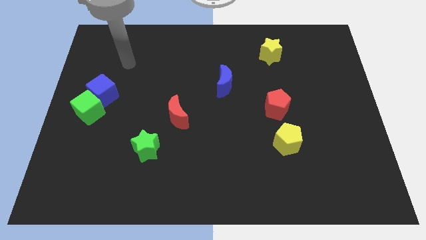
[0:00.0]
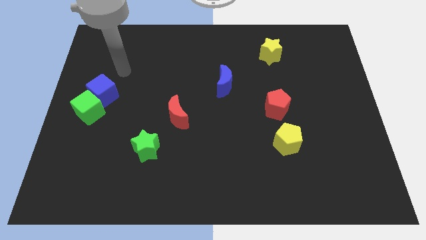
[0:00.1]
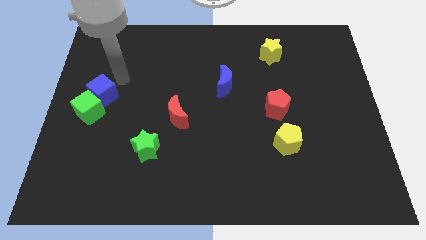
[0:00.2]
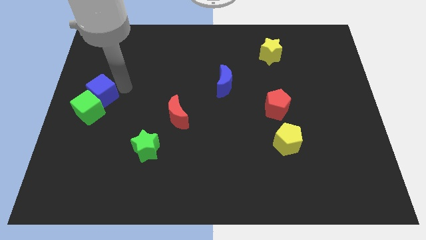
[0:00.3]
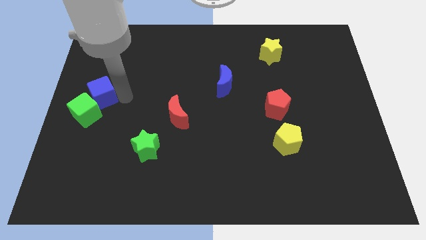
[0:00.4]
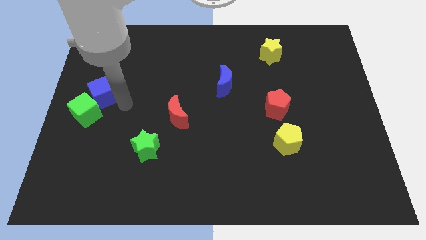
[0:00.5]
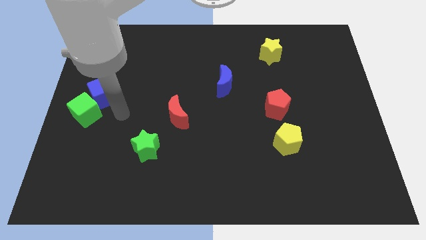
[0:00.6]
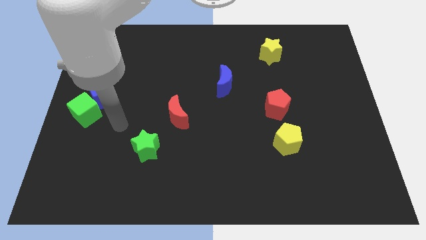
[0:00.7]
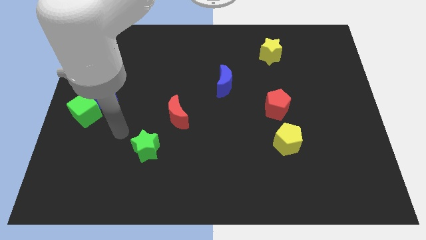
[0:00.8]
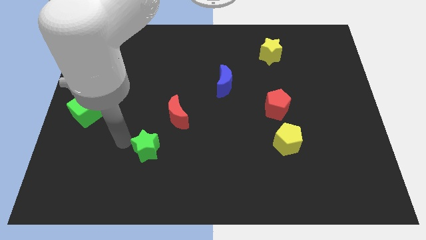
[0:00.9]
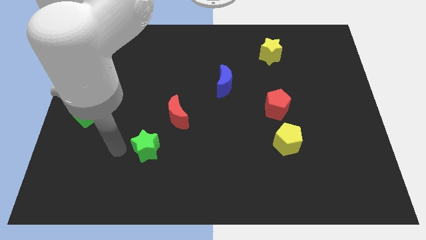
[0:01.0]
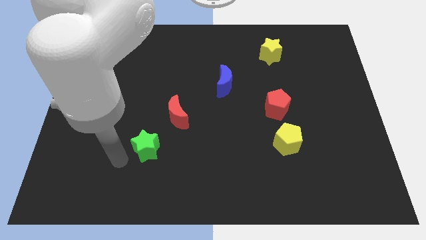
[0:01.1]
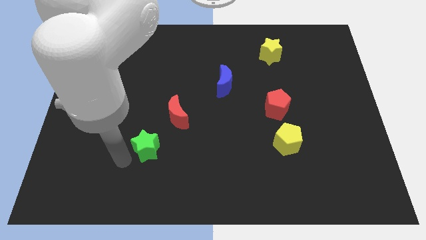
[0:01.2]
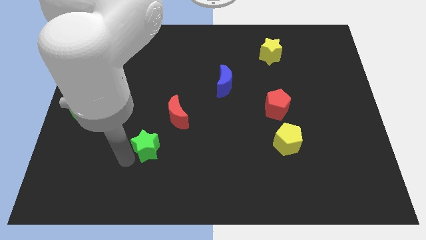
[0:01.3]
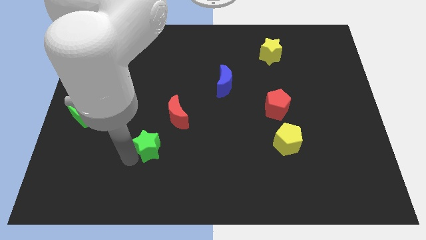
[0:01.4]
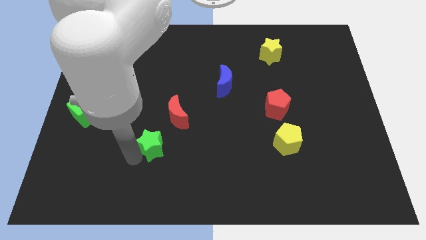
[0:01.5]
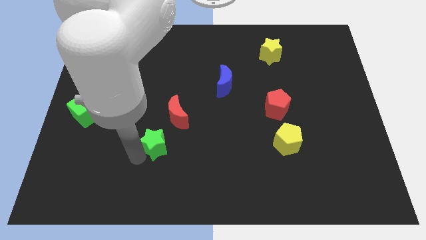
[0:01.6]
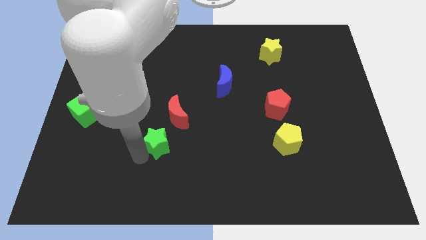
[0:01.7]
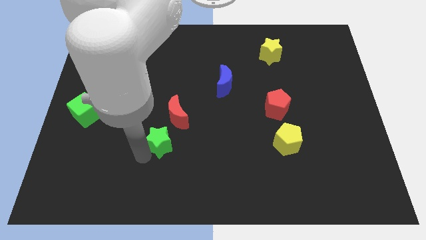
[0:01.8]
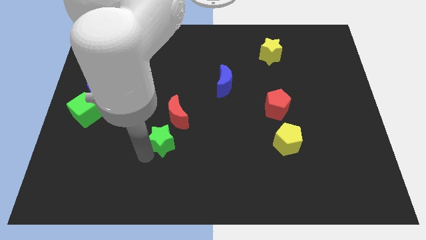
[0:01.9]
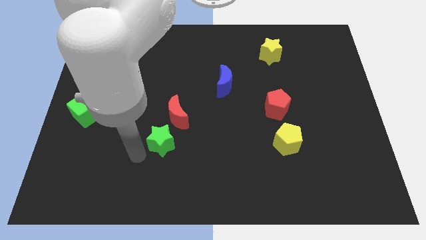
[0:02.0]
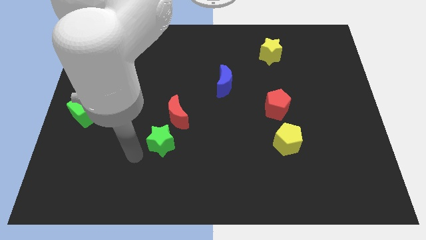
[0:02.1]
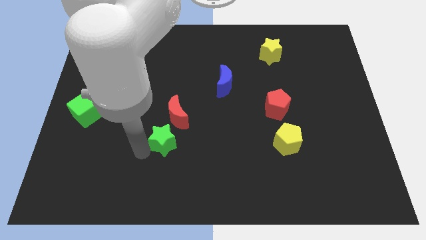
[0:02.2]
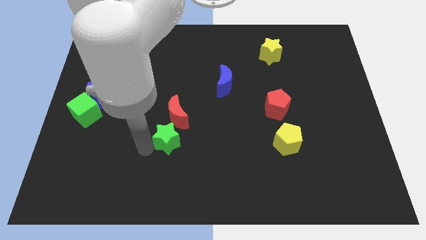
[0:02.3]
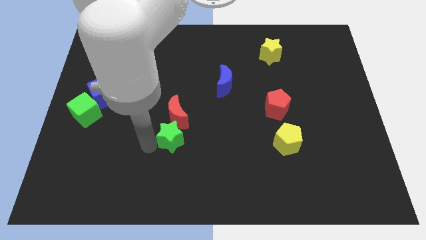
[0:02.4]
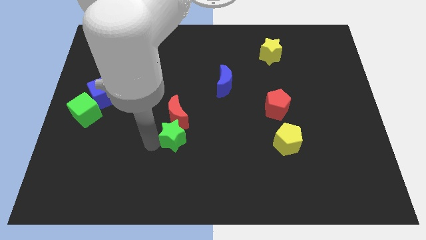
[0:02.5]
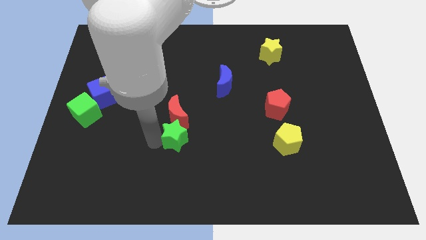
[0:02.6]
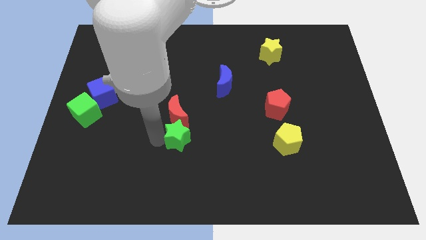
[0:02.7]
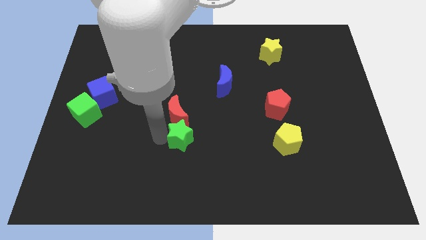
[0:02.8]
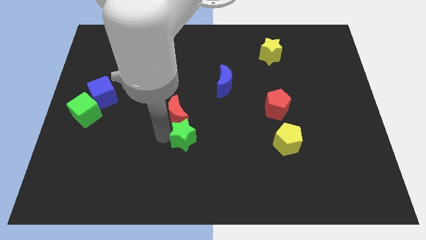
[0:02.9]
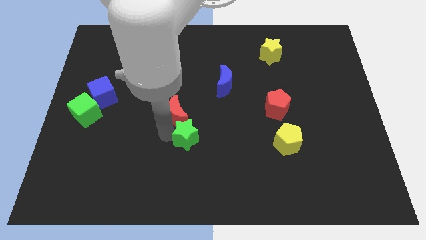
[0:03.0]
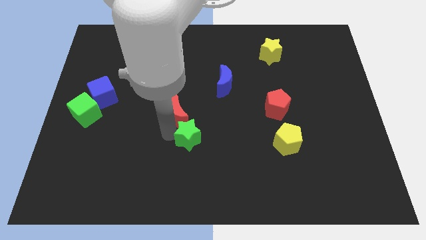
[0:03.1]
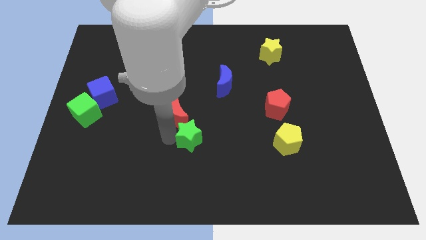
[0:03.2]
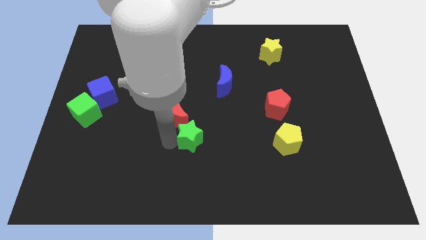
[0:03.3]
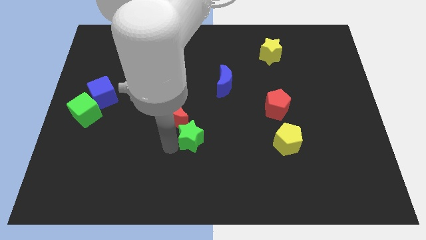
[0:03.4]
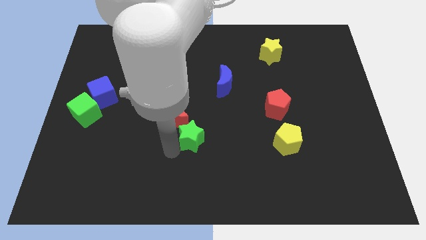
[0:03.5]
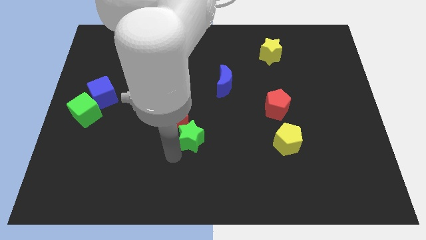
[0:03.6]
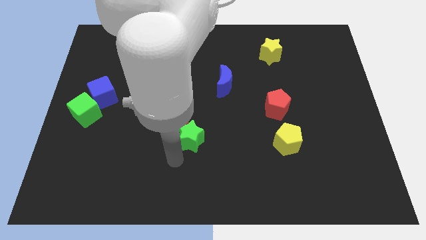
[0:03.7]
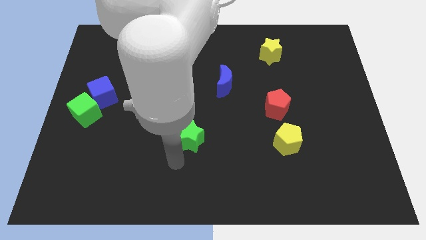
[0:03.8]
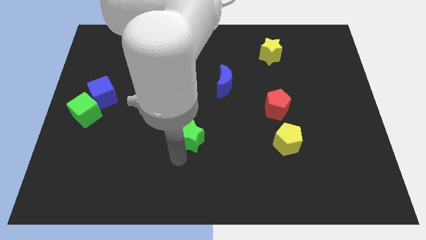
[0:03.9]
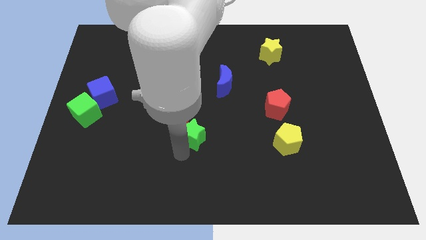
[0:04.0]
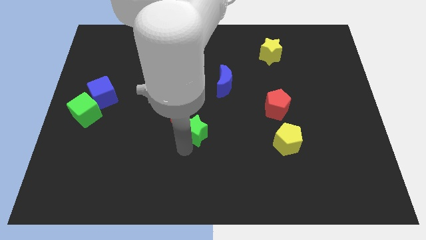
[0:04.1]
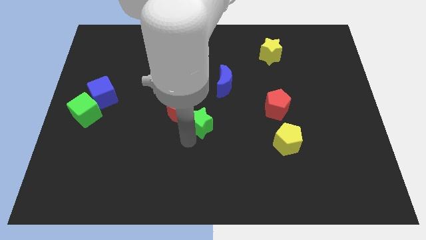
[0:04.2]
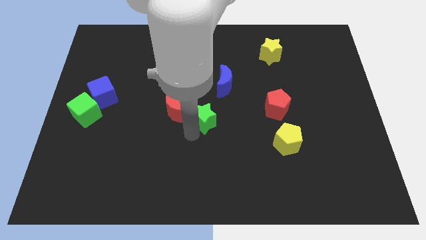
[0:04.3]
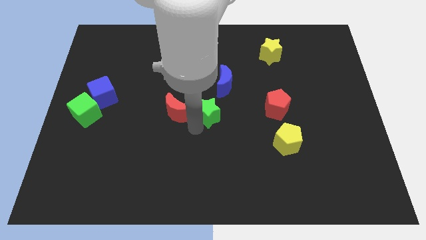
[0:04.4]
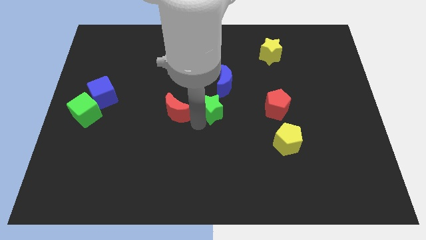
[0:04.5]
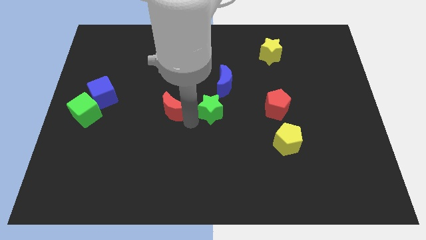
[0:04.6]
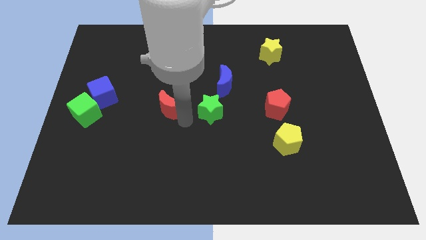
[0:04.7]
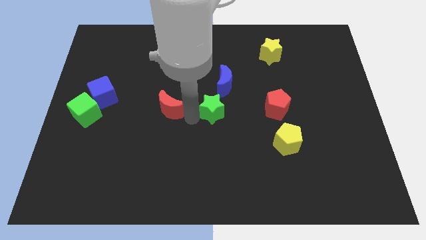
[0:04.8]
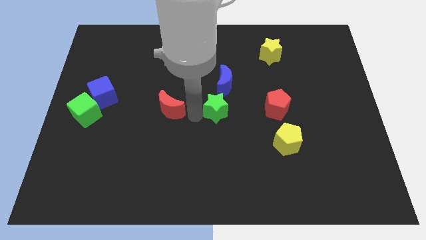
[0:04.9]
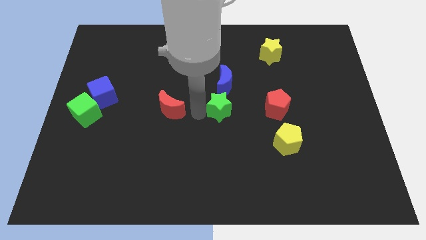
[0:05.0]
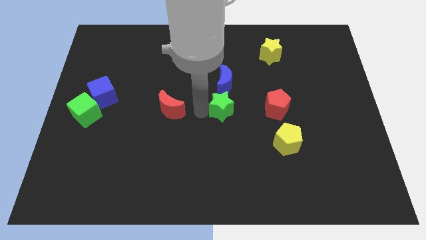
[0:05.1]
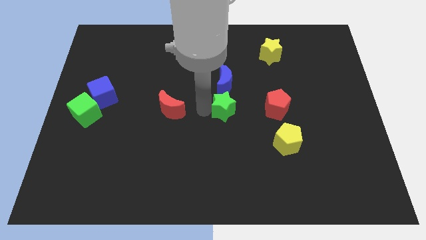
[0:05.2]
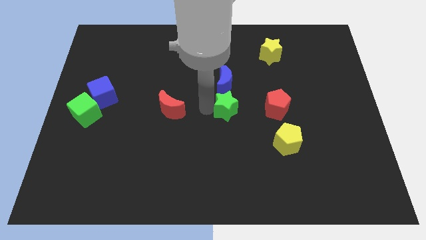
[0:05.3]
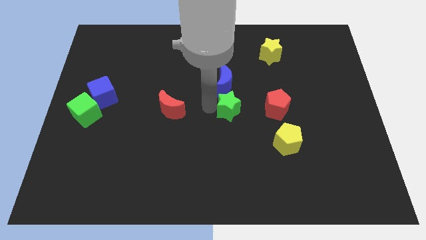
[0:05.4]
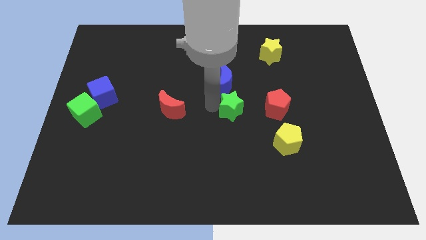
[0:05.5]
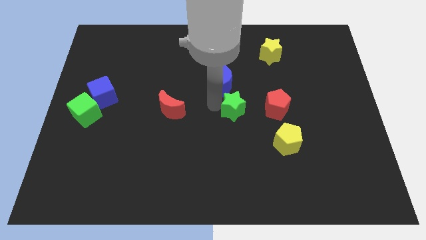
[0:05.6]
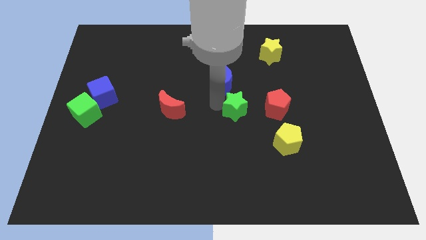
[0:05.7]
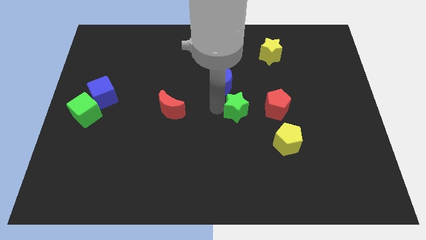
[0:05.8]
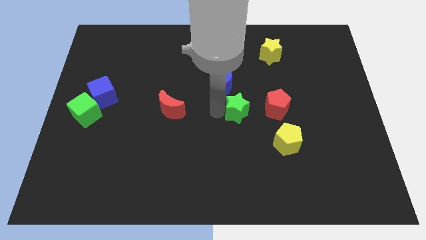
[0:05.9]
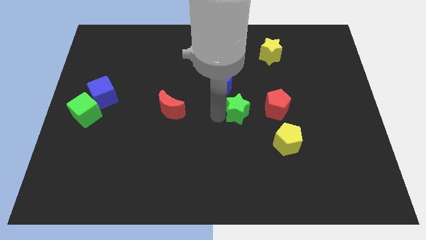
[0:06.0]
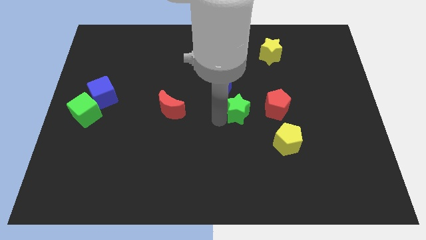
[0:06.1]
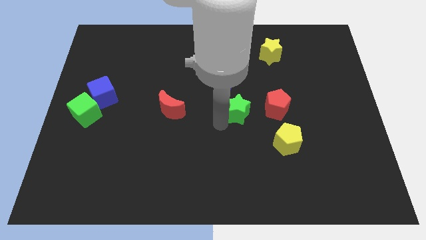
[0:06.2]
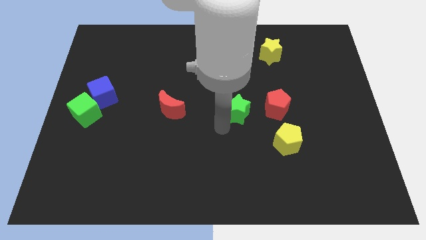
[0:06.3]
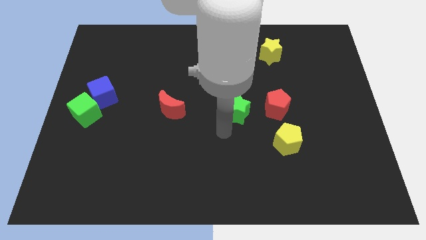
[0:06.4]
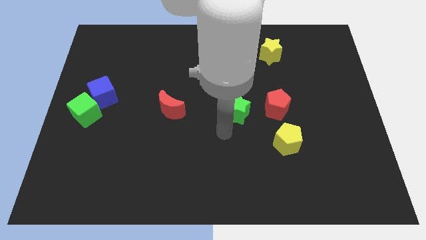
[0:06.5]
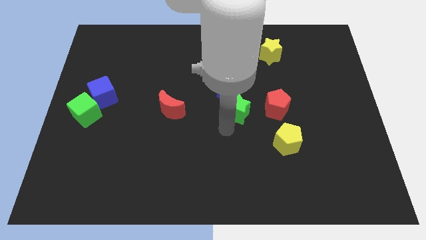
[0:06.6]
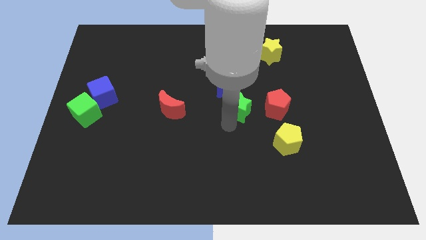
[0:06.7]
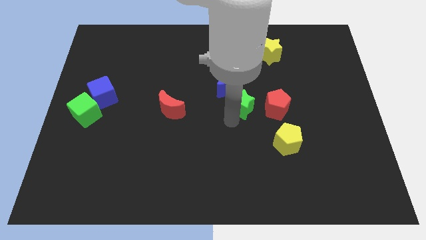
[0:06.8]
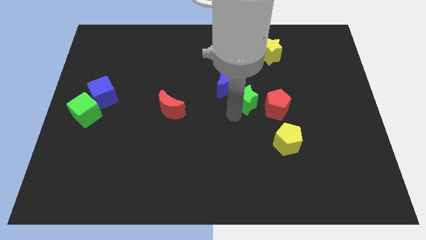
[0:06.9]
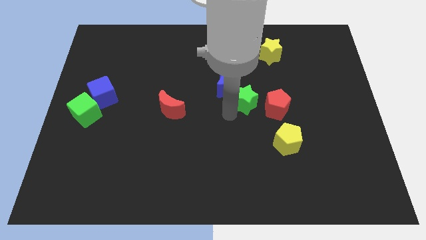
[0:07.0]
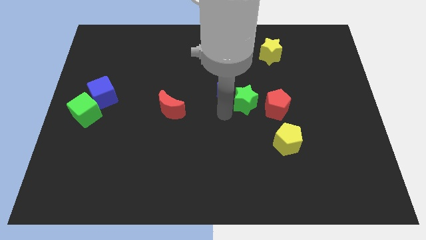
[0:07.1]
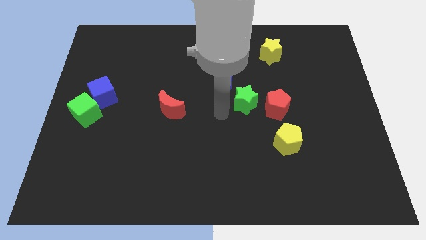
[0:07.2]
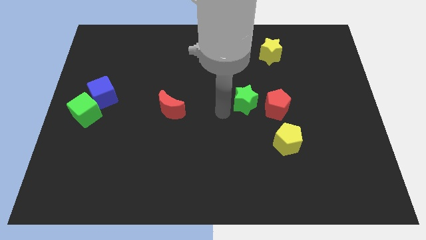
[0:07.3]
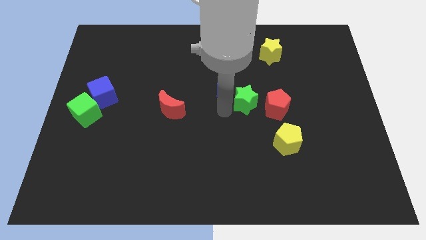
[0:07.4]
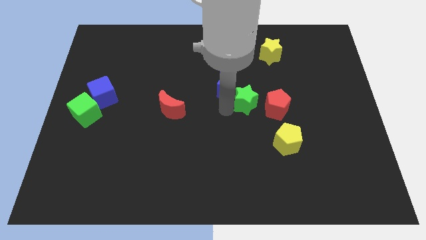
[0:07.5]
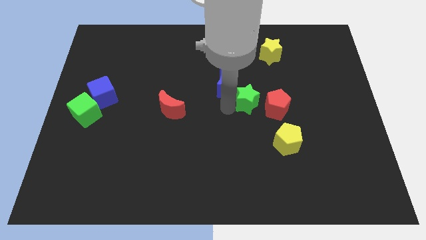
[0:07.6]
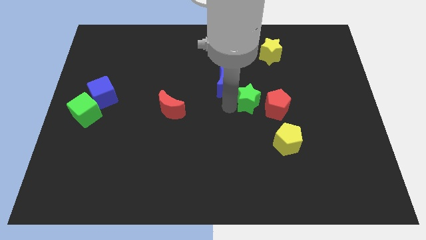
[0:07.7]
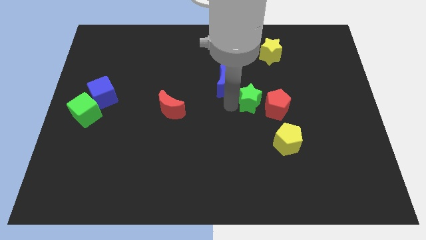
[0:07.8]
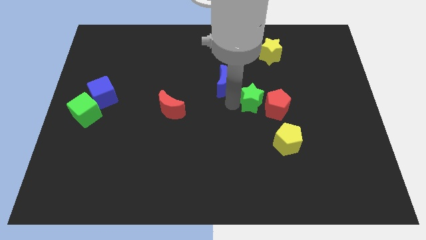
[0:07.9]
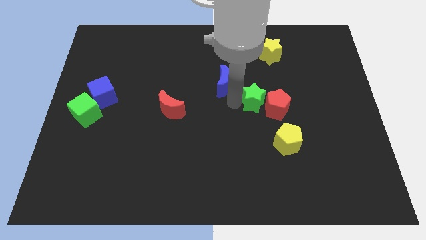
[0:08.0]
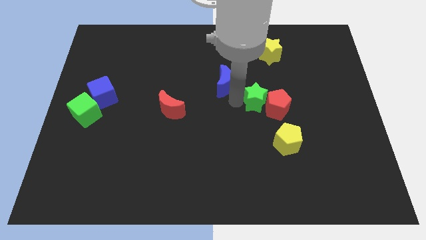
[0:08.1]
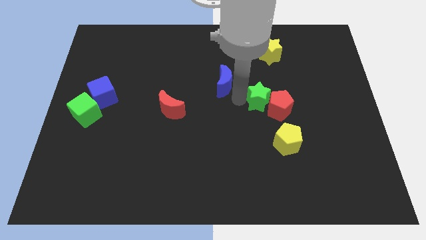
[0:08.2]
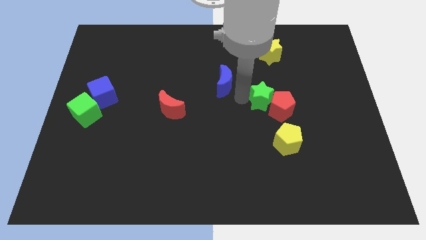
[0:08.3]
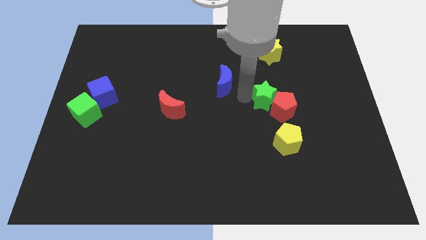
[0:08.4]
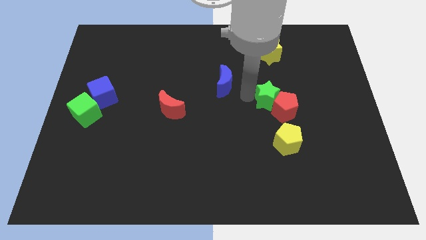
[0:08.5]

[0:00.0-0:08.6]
slide the green star to the bottom side of the yellow star
